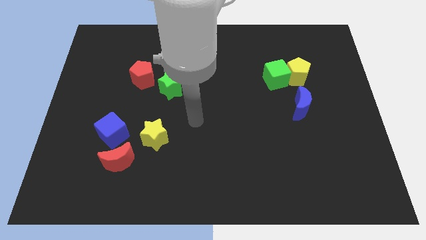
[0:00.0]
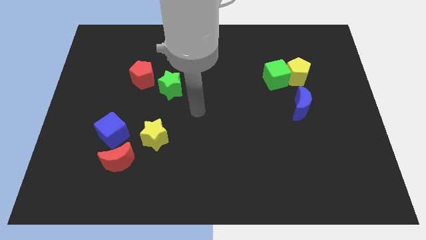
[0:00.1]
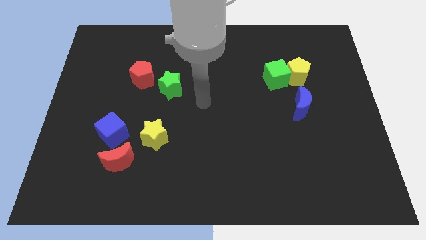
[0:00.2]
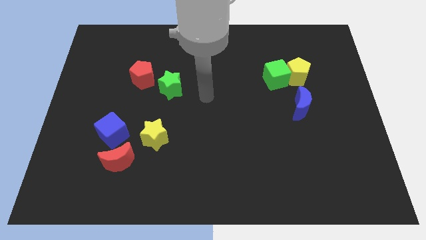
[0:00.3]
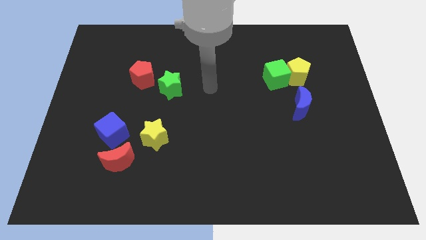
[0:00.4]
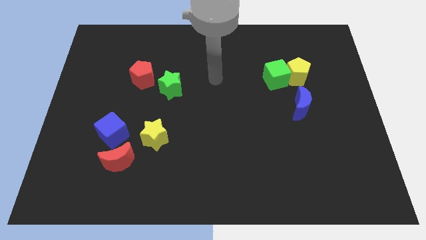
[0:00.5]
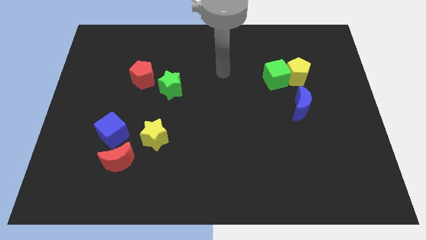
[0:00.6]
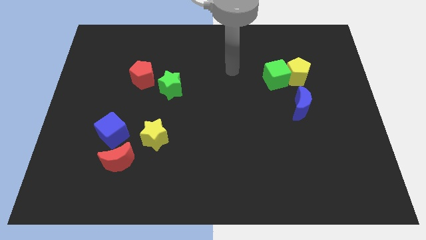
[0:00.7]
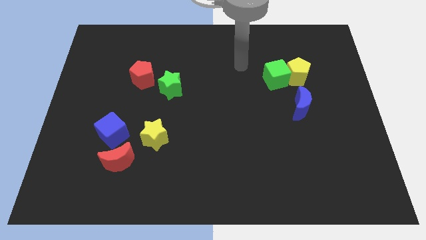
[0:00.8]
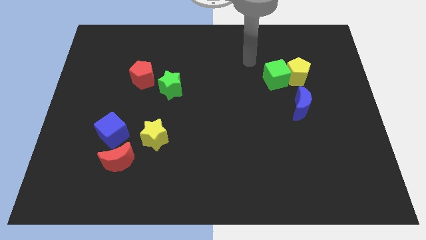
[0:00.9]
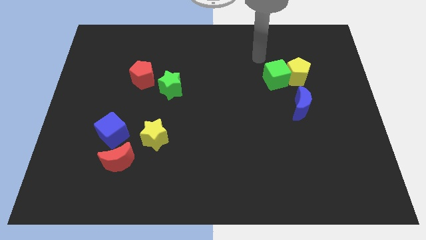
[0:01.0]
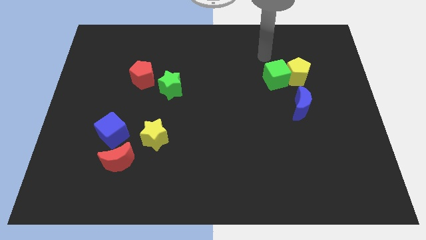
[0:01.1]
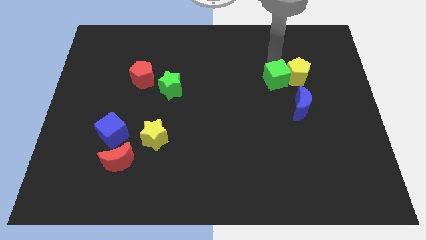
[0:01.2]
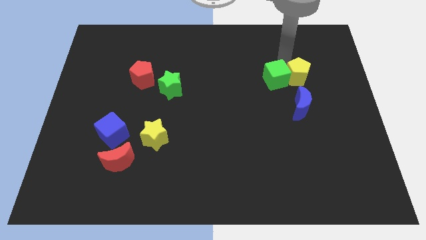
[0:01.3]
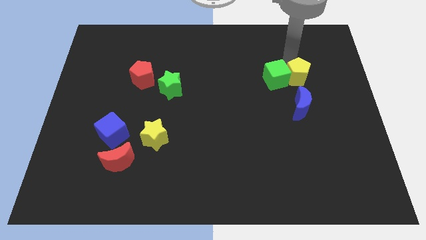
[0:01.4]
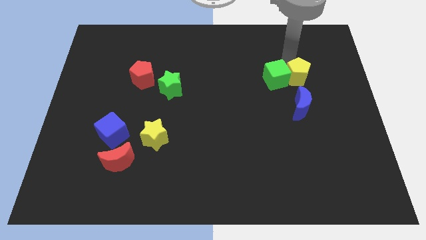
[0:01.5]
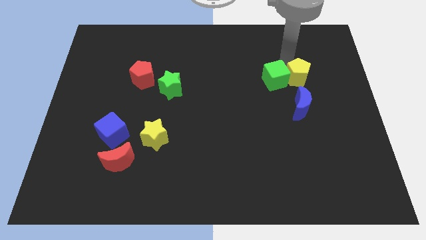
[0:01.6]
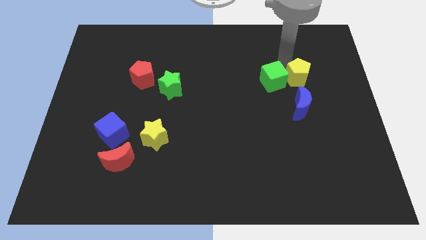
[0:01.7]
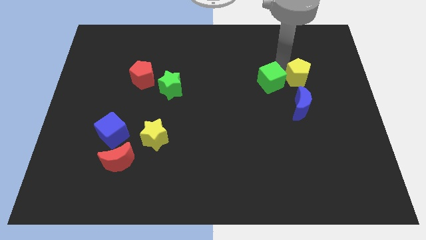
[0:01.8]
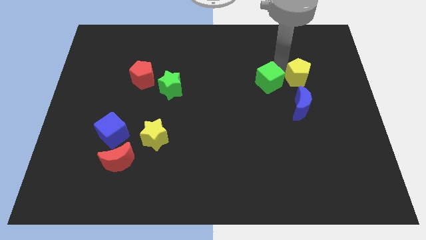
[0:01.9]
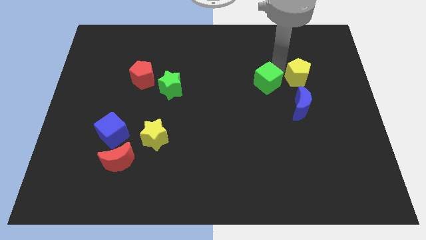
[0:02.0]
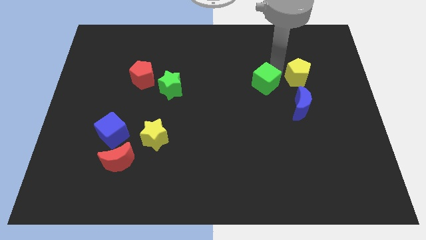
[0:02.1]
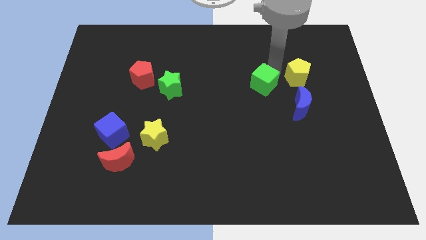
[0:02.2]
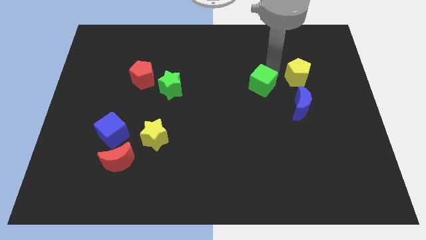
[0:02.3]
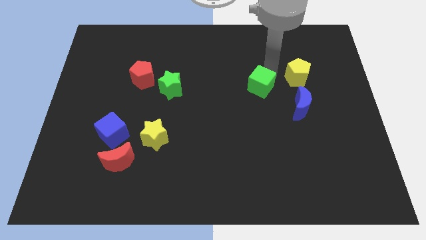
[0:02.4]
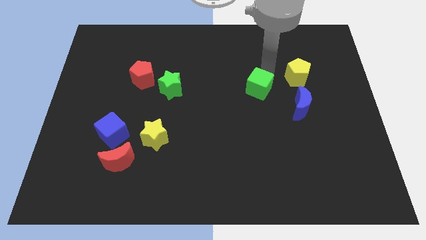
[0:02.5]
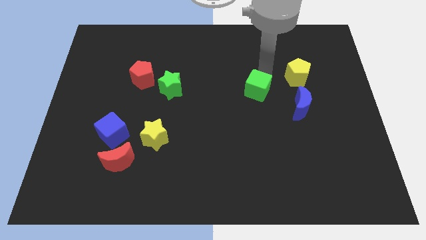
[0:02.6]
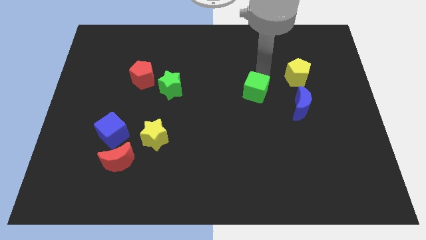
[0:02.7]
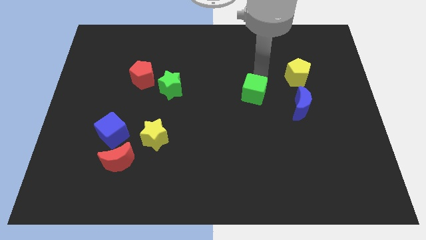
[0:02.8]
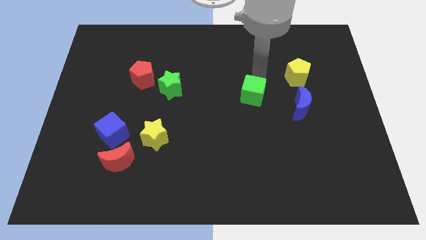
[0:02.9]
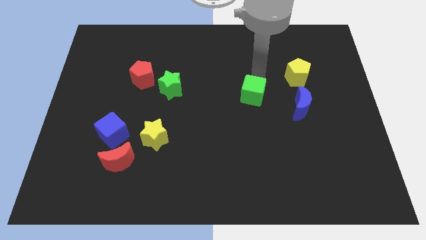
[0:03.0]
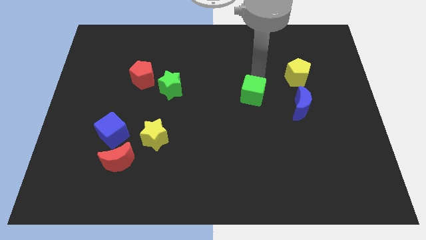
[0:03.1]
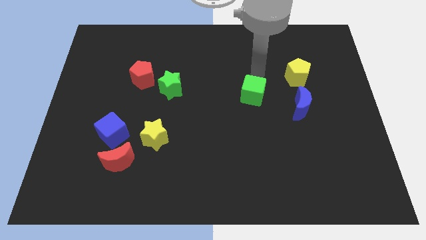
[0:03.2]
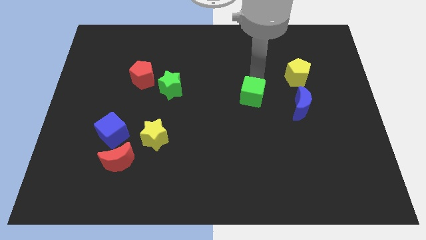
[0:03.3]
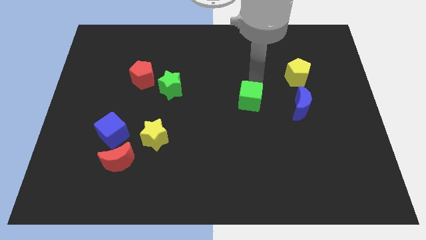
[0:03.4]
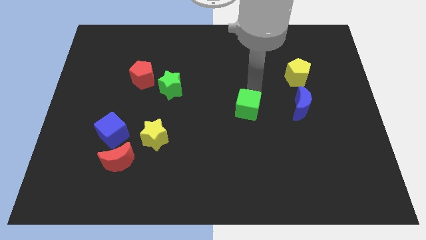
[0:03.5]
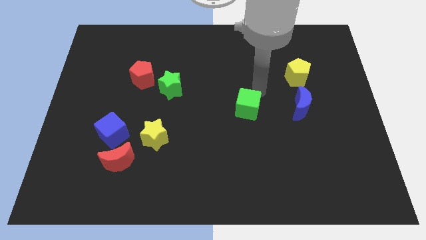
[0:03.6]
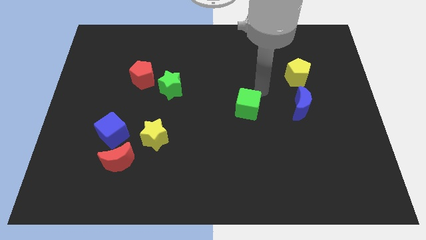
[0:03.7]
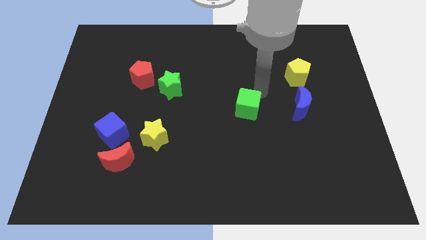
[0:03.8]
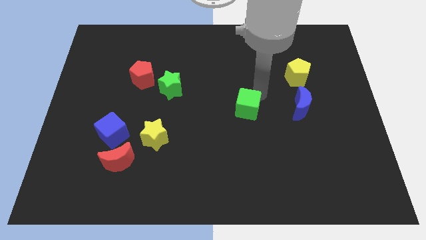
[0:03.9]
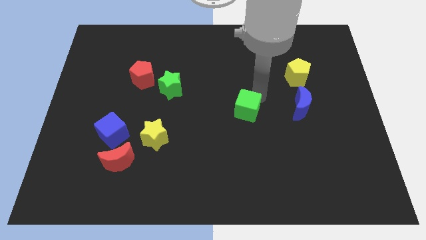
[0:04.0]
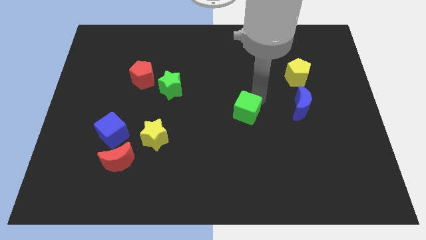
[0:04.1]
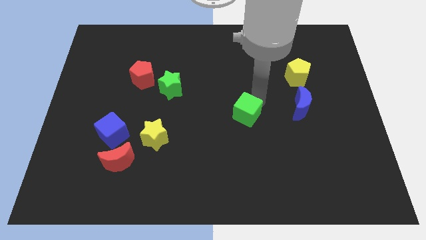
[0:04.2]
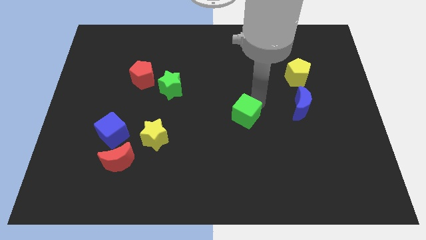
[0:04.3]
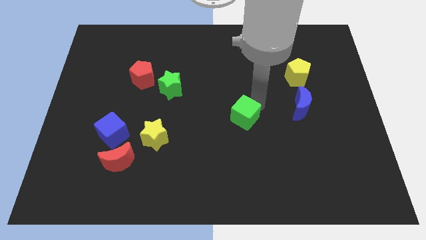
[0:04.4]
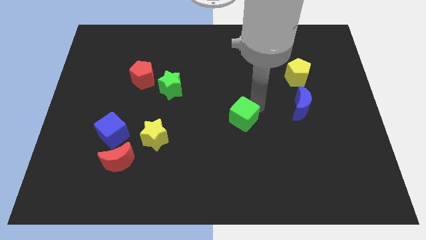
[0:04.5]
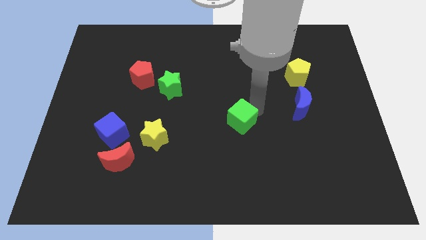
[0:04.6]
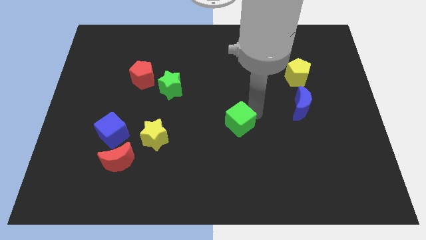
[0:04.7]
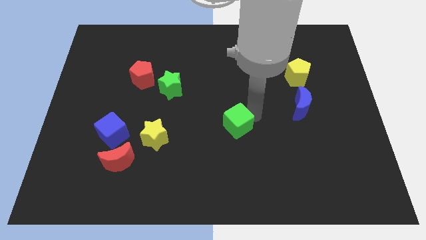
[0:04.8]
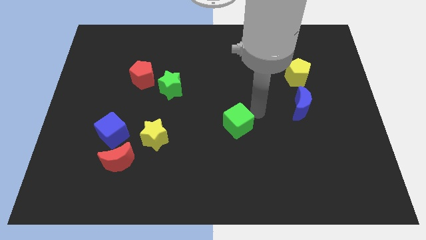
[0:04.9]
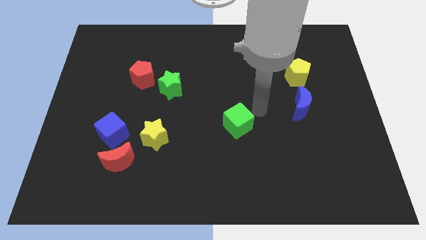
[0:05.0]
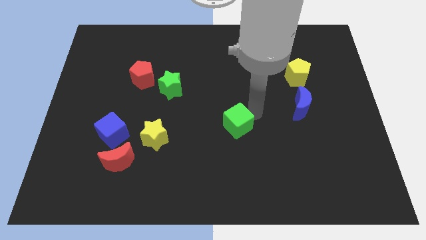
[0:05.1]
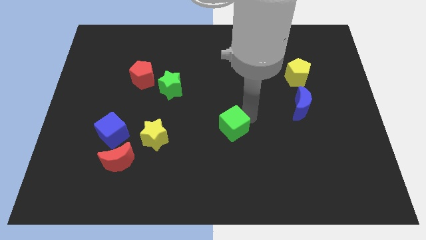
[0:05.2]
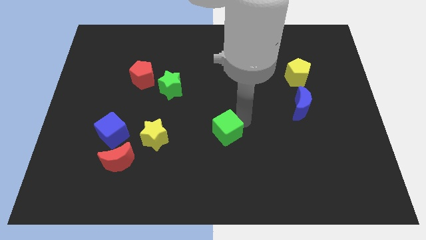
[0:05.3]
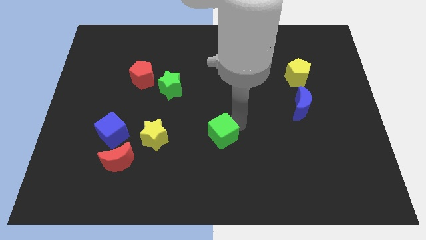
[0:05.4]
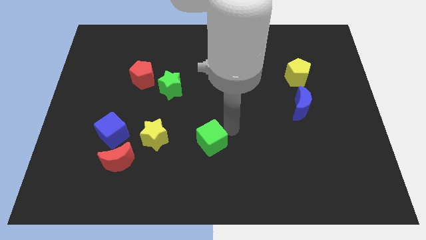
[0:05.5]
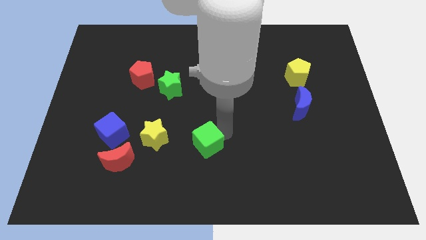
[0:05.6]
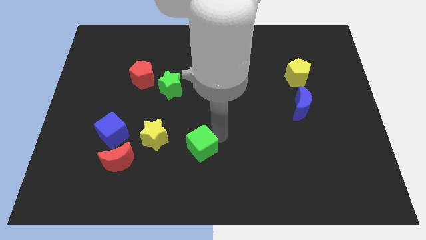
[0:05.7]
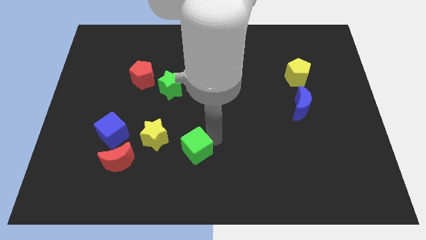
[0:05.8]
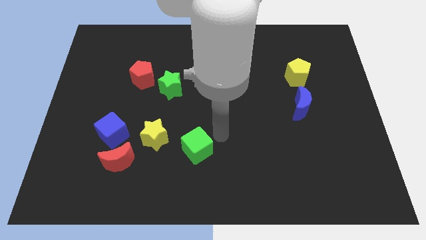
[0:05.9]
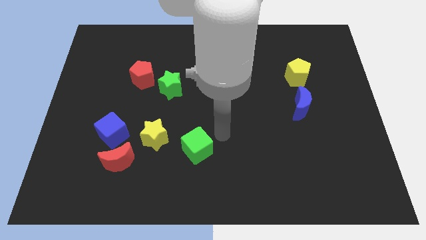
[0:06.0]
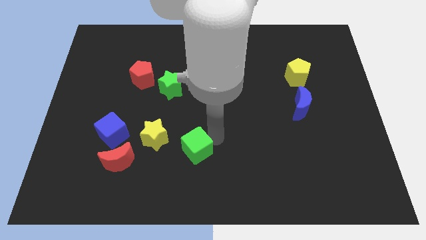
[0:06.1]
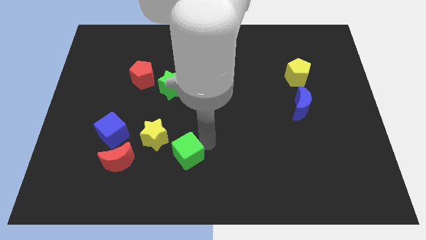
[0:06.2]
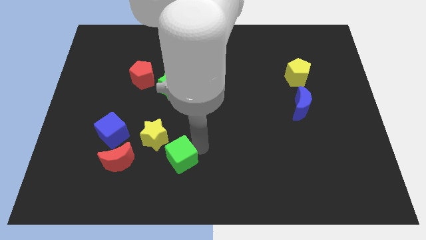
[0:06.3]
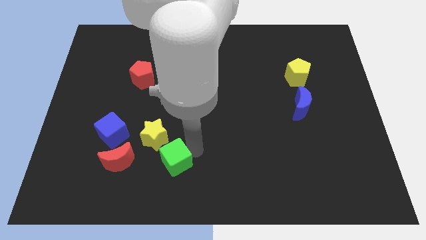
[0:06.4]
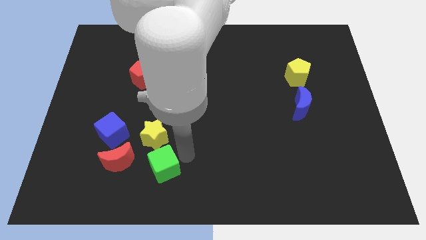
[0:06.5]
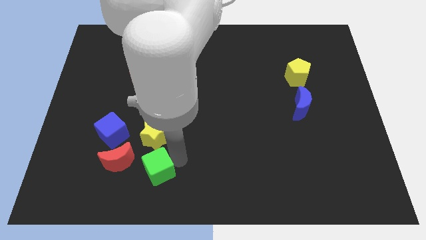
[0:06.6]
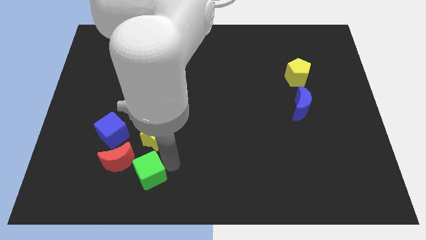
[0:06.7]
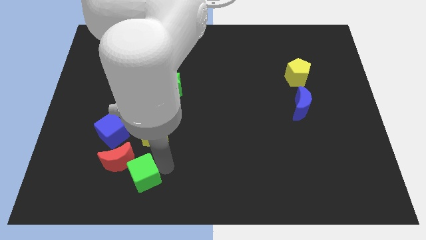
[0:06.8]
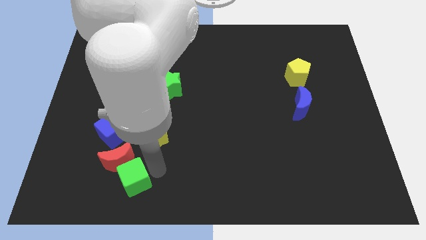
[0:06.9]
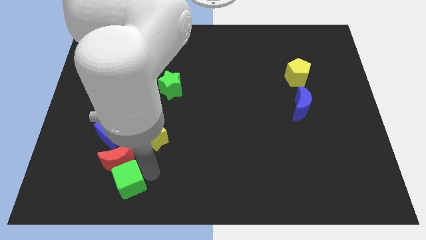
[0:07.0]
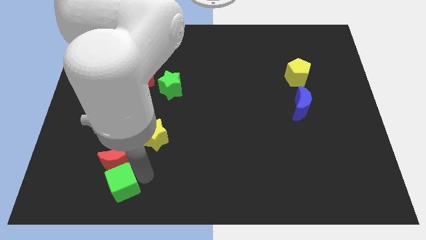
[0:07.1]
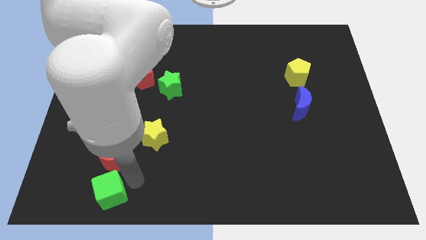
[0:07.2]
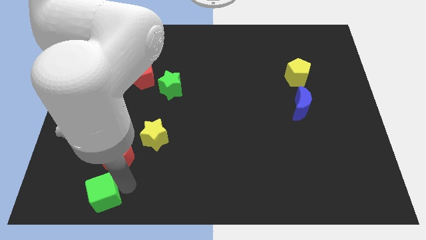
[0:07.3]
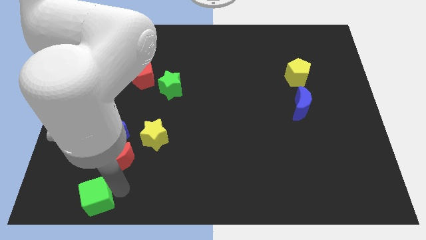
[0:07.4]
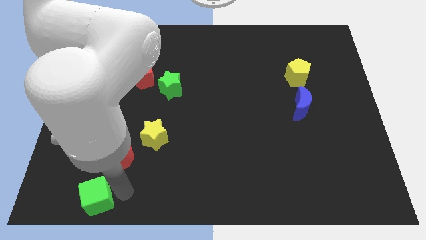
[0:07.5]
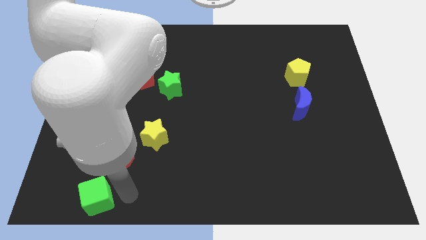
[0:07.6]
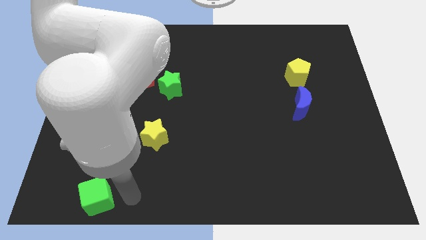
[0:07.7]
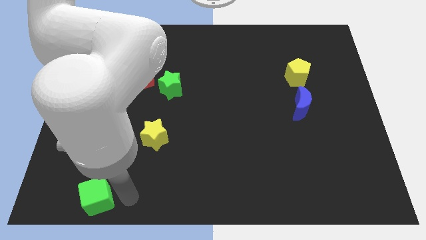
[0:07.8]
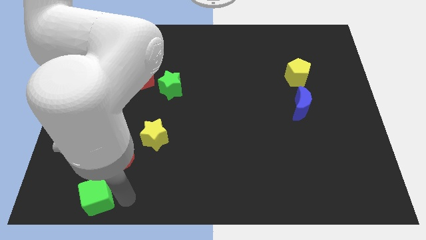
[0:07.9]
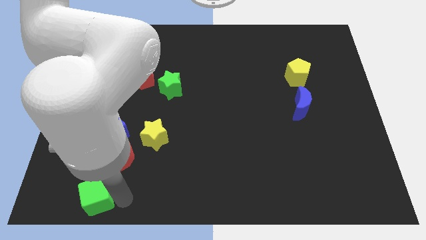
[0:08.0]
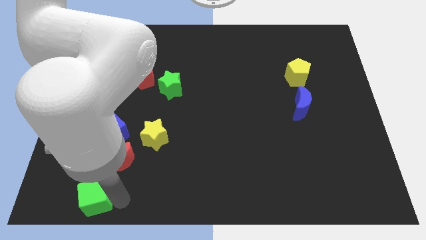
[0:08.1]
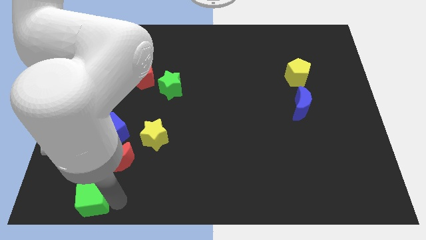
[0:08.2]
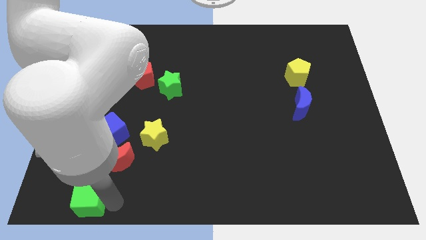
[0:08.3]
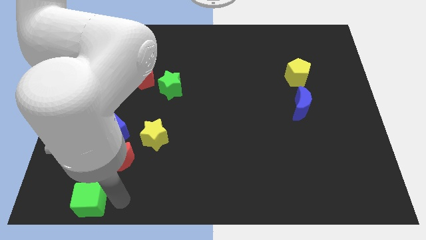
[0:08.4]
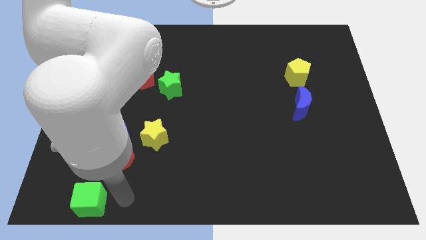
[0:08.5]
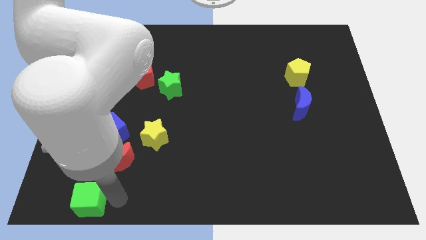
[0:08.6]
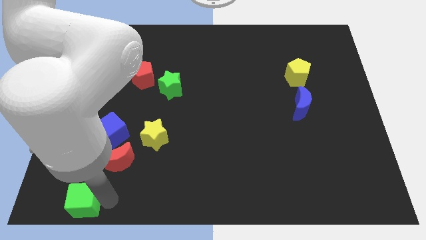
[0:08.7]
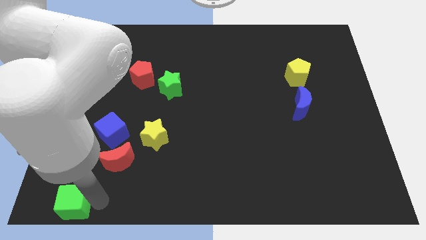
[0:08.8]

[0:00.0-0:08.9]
put the green cube to the lower left corner
